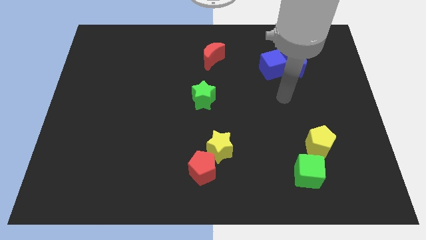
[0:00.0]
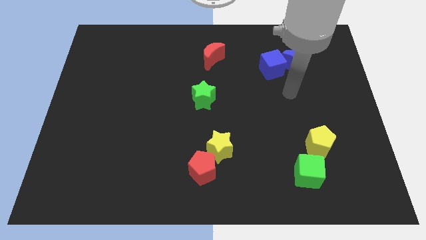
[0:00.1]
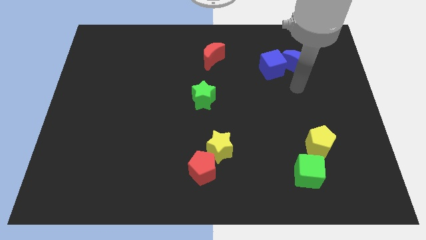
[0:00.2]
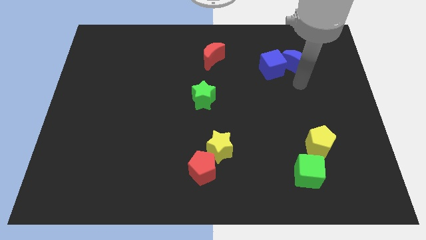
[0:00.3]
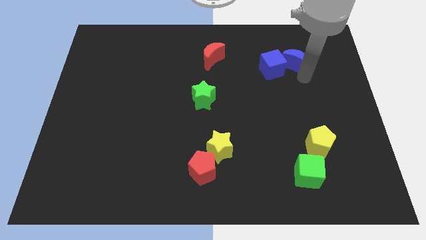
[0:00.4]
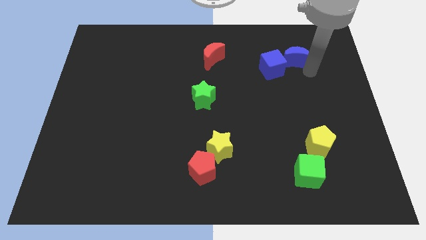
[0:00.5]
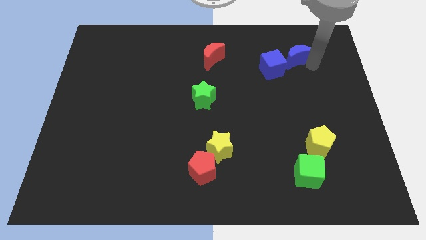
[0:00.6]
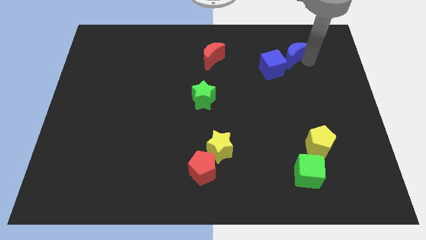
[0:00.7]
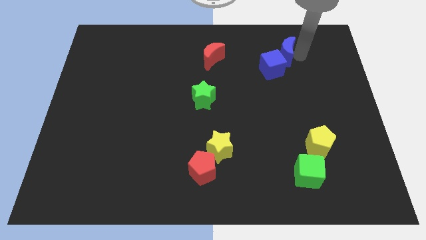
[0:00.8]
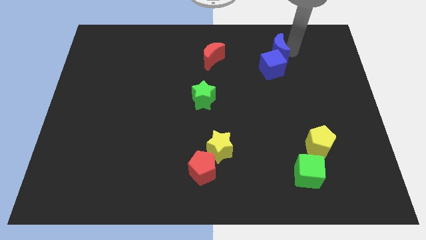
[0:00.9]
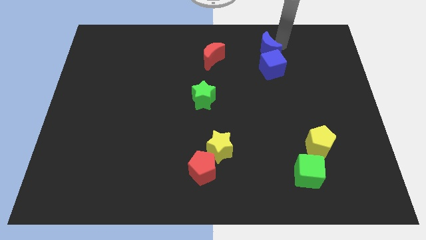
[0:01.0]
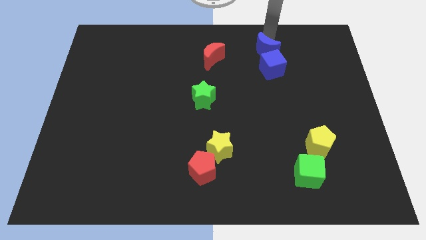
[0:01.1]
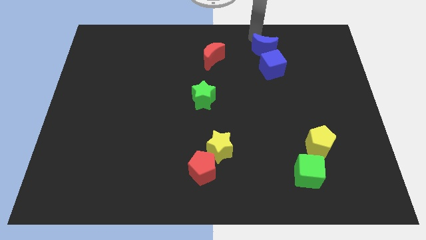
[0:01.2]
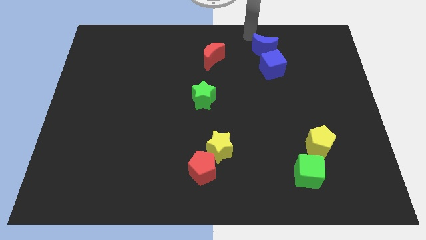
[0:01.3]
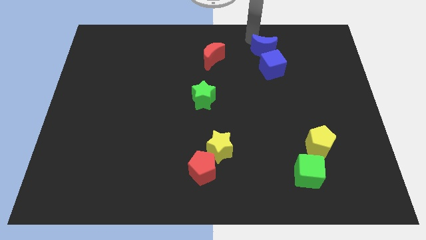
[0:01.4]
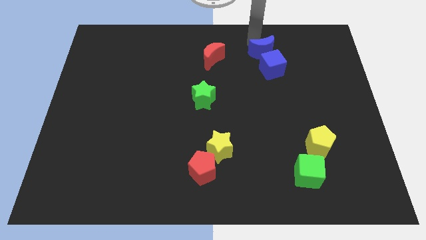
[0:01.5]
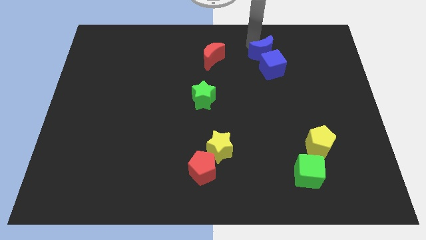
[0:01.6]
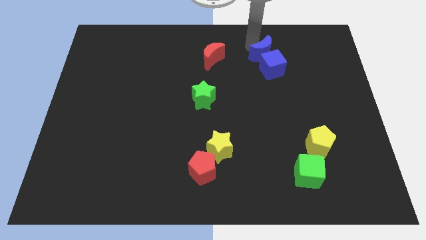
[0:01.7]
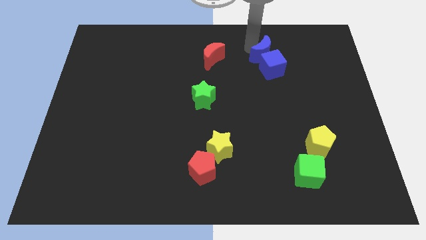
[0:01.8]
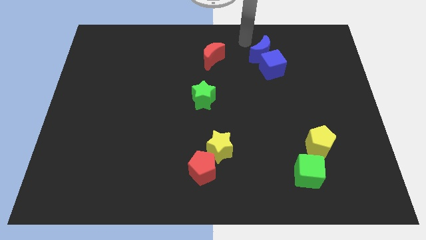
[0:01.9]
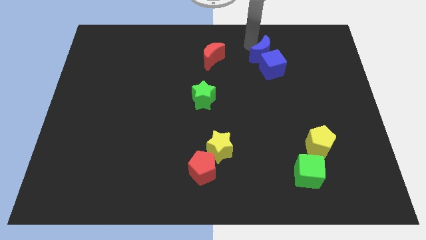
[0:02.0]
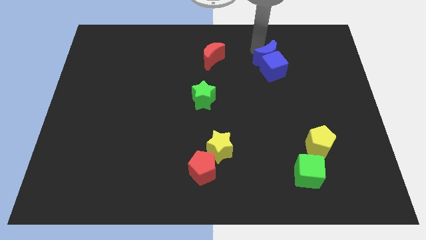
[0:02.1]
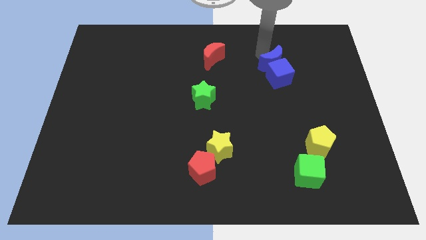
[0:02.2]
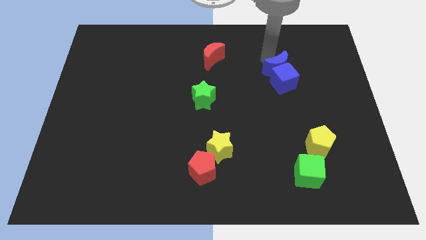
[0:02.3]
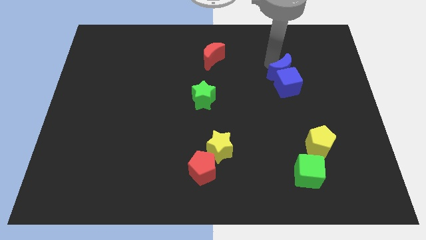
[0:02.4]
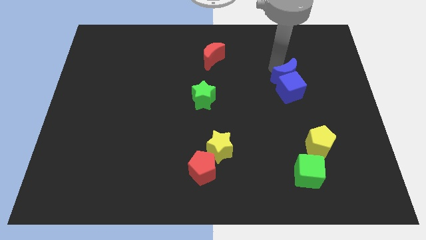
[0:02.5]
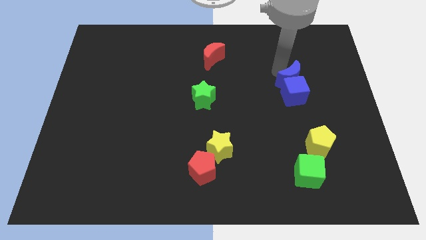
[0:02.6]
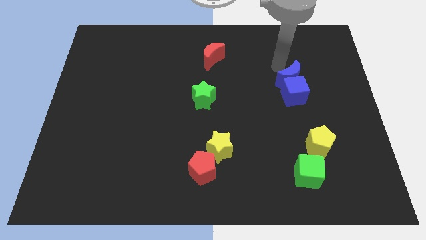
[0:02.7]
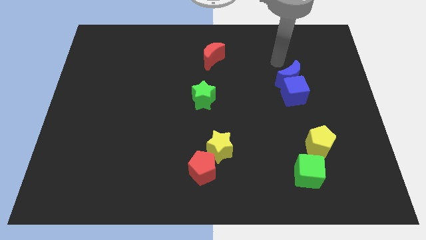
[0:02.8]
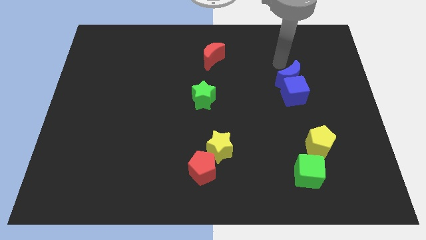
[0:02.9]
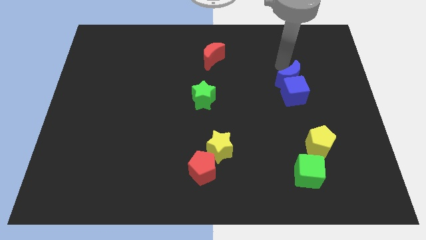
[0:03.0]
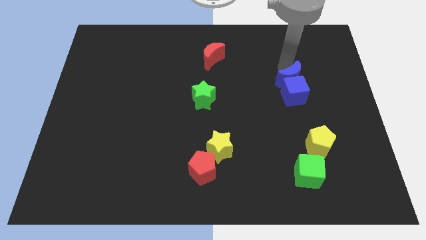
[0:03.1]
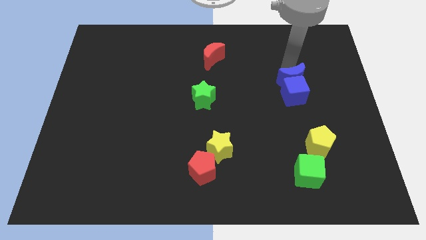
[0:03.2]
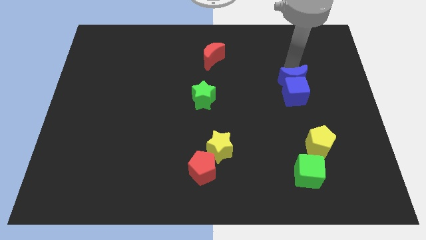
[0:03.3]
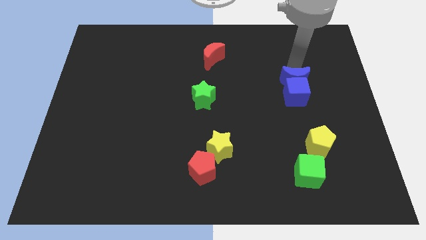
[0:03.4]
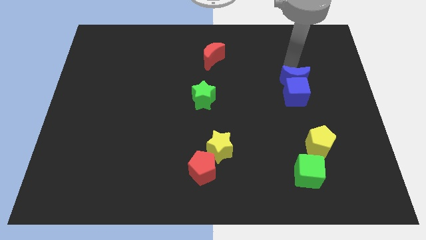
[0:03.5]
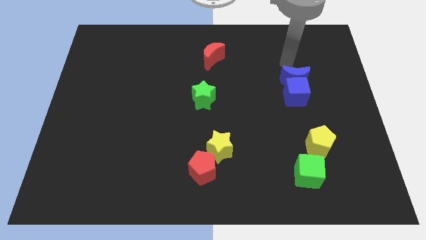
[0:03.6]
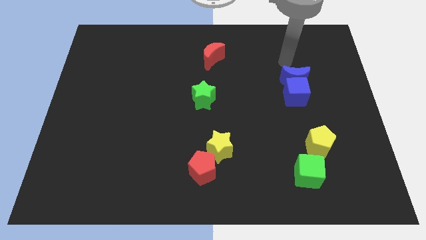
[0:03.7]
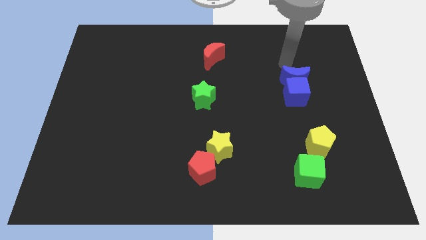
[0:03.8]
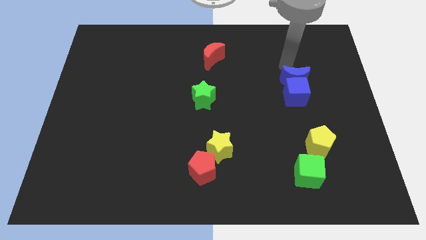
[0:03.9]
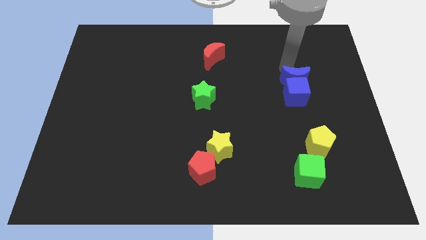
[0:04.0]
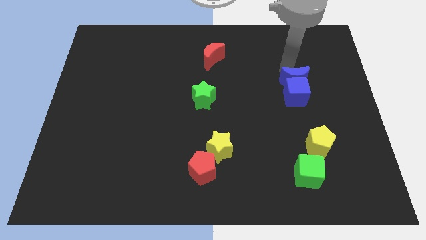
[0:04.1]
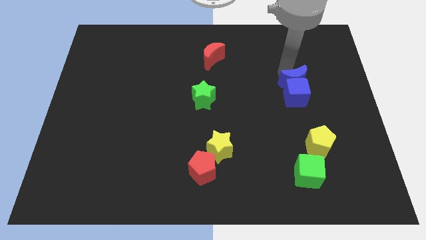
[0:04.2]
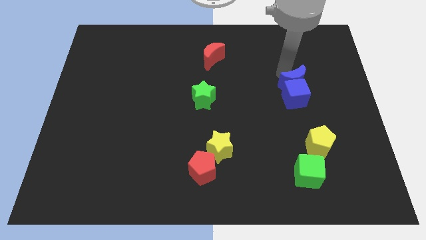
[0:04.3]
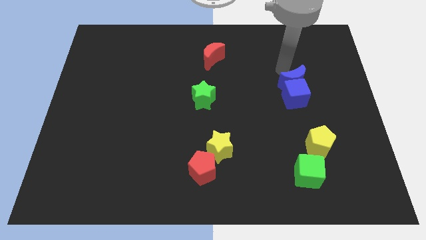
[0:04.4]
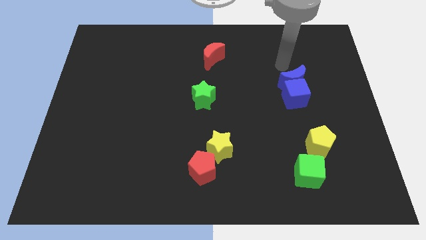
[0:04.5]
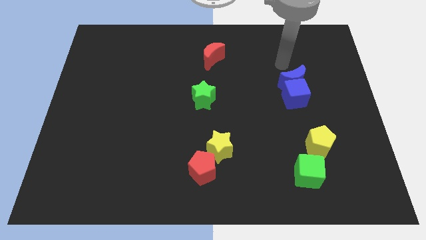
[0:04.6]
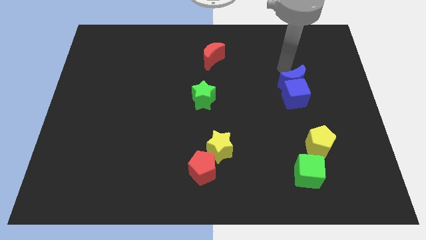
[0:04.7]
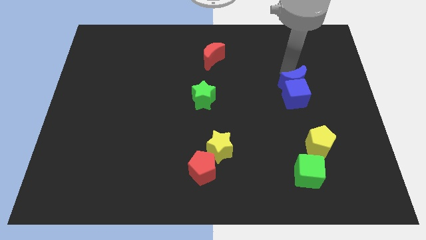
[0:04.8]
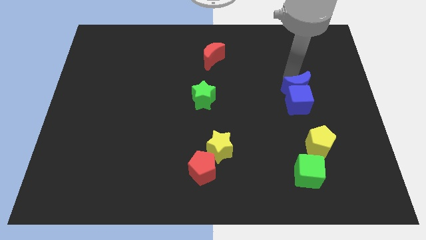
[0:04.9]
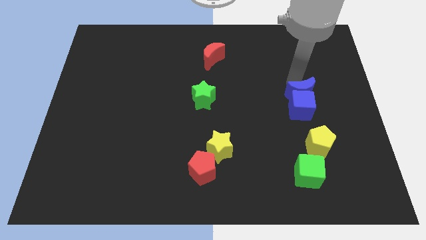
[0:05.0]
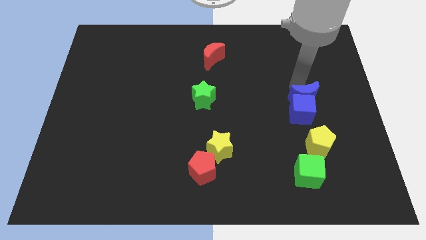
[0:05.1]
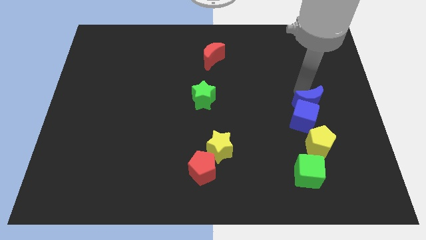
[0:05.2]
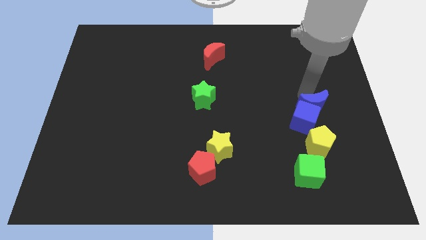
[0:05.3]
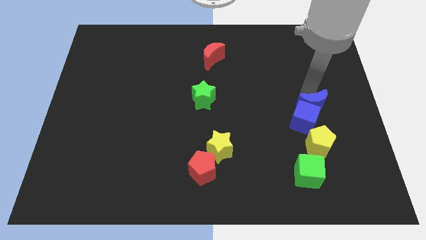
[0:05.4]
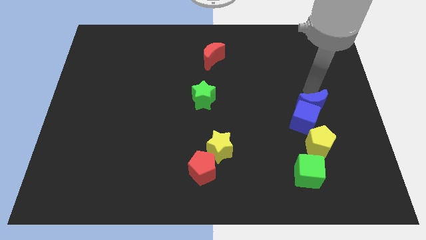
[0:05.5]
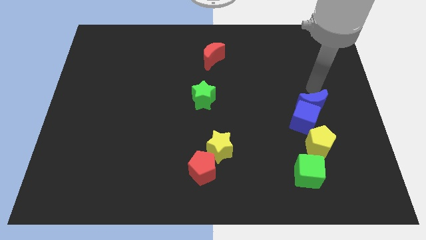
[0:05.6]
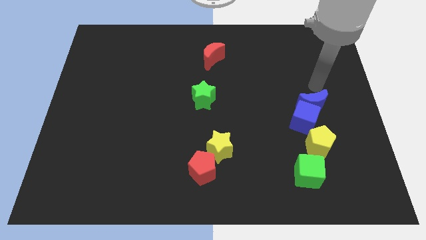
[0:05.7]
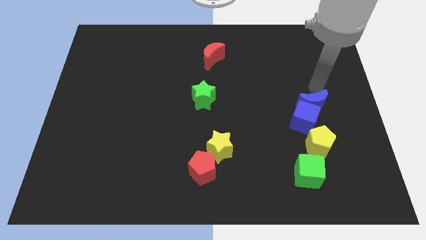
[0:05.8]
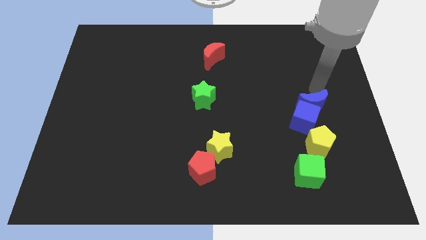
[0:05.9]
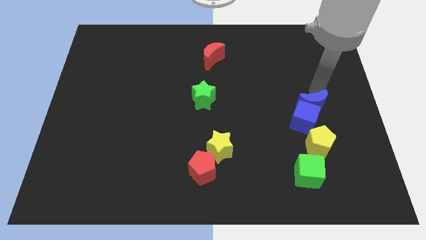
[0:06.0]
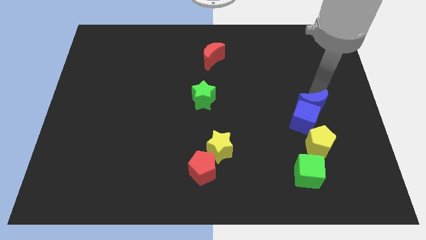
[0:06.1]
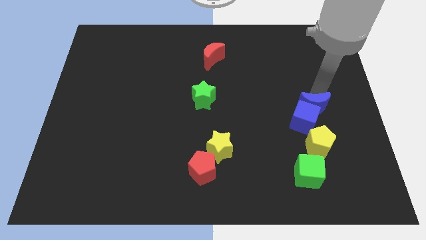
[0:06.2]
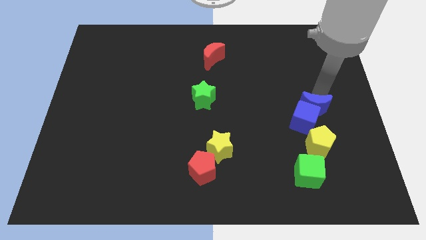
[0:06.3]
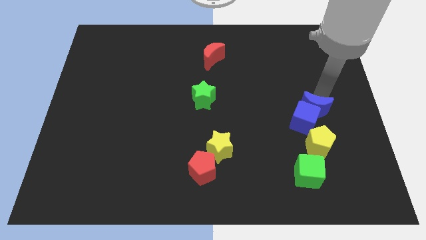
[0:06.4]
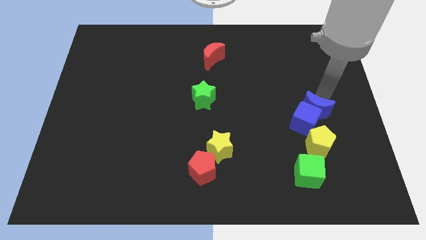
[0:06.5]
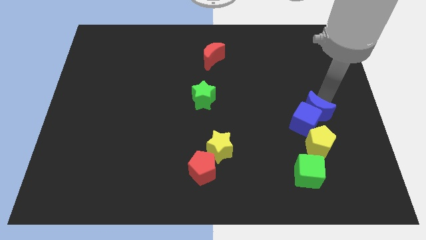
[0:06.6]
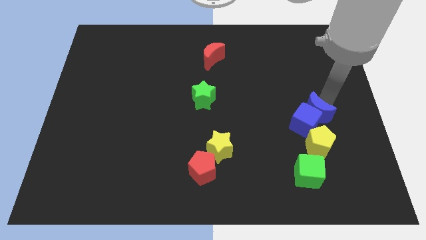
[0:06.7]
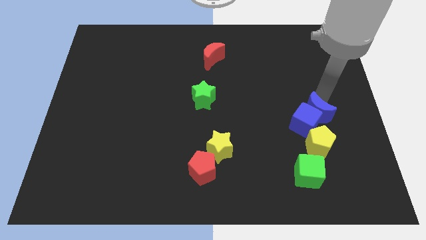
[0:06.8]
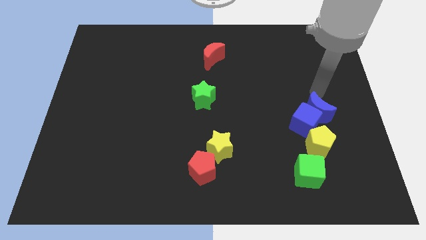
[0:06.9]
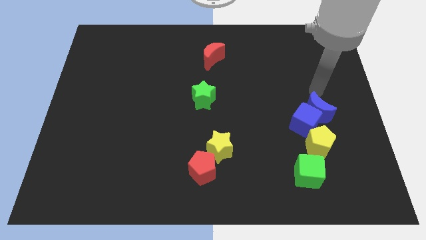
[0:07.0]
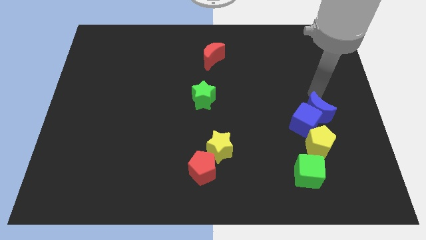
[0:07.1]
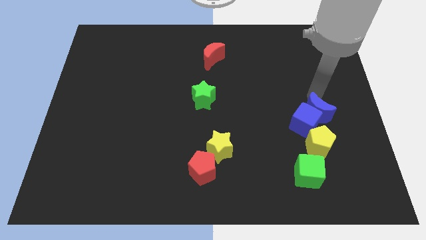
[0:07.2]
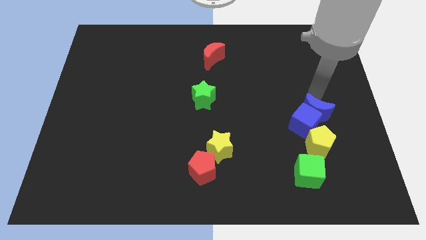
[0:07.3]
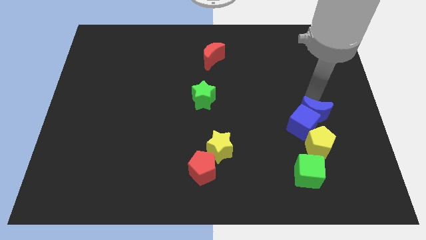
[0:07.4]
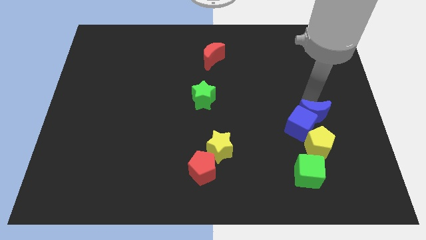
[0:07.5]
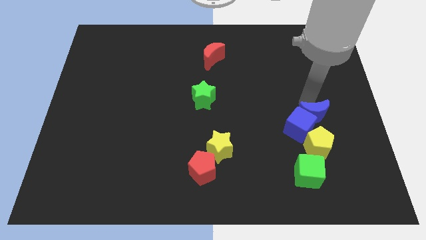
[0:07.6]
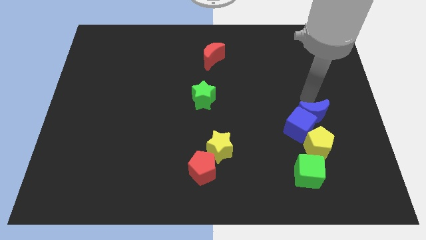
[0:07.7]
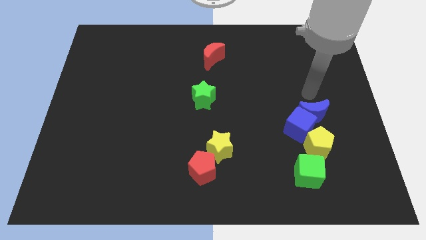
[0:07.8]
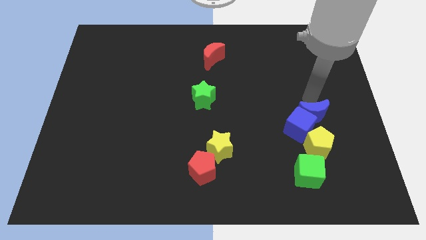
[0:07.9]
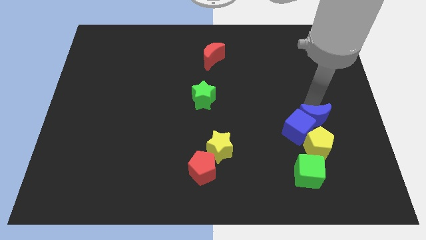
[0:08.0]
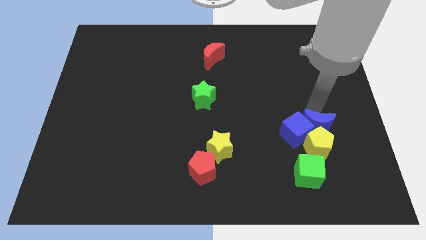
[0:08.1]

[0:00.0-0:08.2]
slide the blue moon to the yellow pentagon
